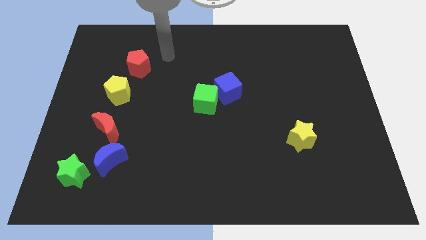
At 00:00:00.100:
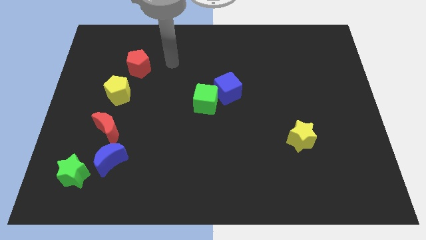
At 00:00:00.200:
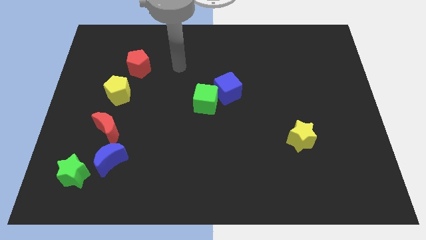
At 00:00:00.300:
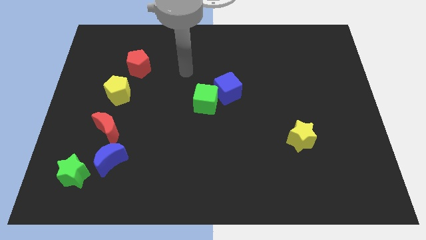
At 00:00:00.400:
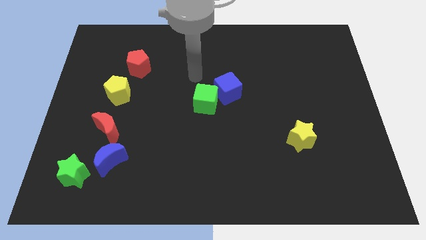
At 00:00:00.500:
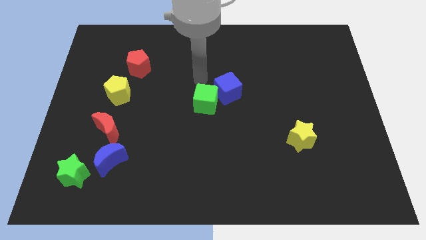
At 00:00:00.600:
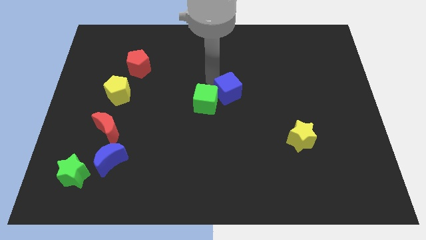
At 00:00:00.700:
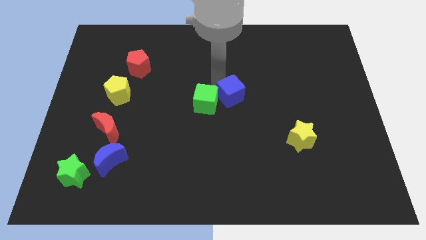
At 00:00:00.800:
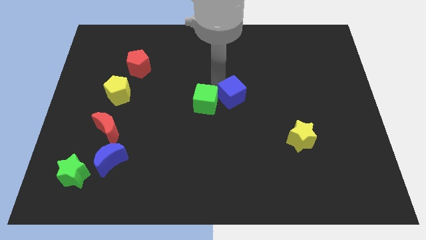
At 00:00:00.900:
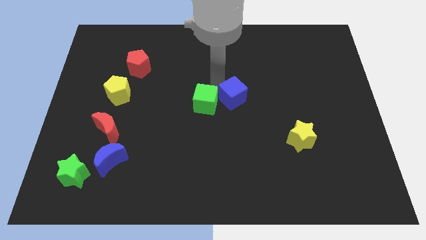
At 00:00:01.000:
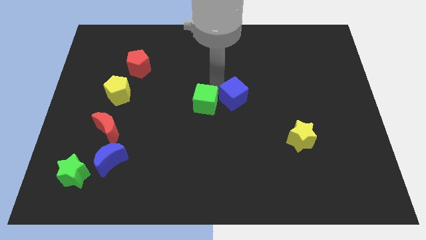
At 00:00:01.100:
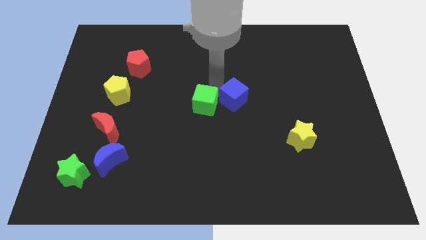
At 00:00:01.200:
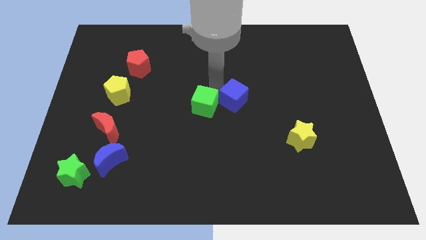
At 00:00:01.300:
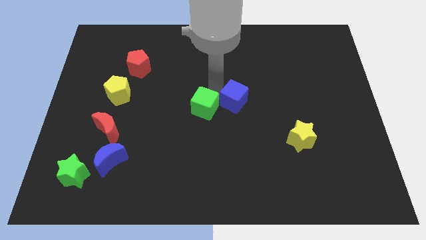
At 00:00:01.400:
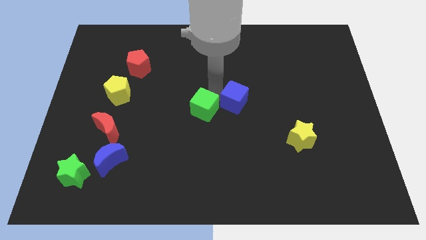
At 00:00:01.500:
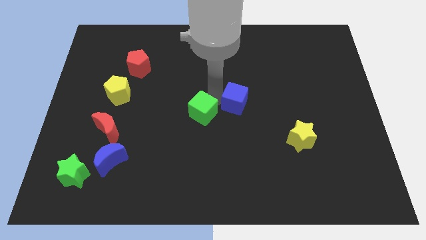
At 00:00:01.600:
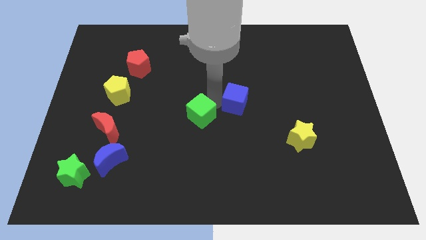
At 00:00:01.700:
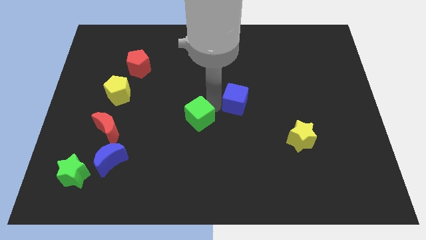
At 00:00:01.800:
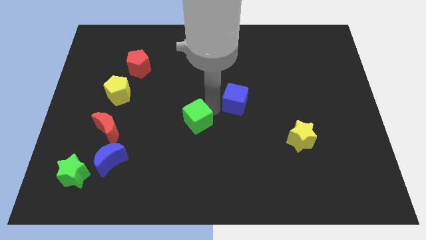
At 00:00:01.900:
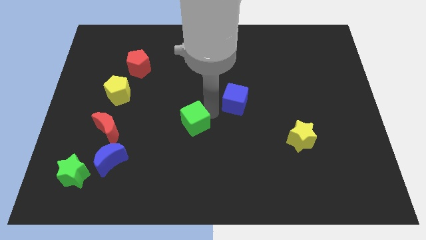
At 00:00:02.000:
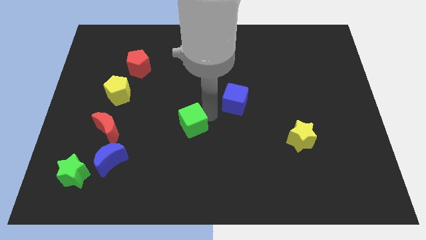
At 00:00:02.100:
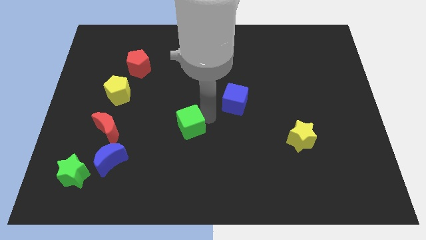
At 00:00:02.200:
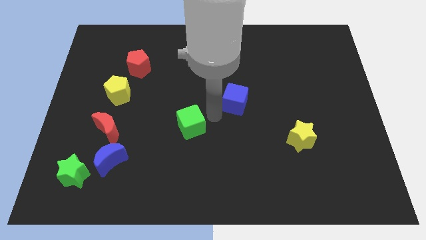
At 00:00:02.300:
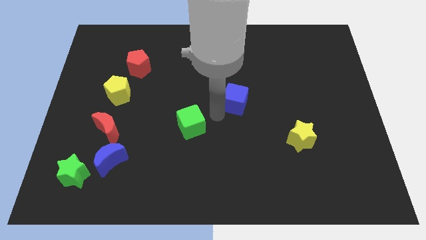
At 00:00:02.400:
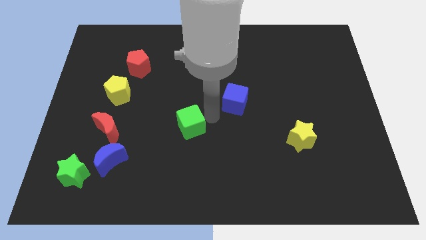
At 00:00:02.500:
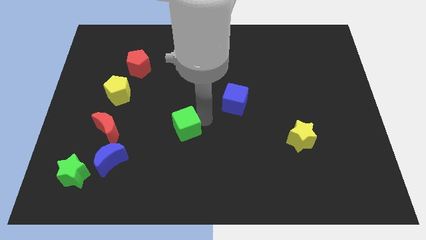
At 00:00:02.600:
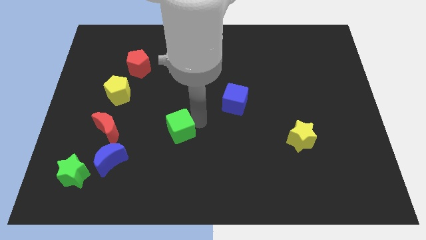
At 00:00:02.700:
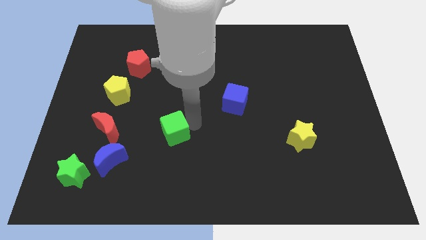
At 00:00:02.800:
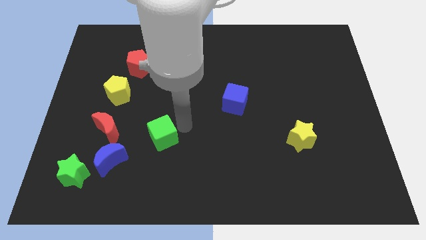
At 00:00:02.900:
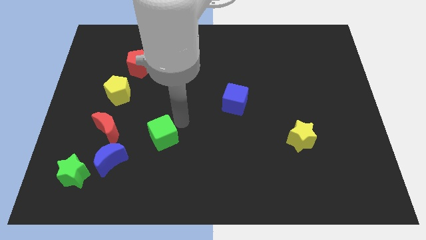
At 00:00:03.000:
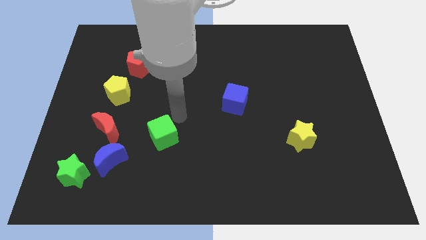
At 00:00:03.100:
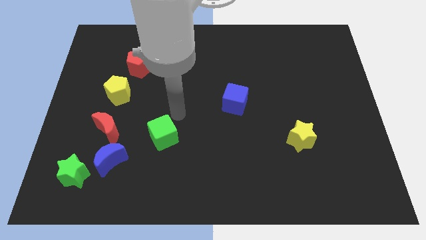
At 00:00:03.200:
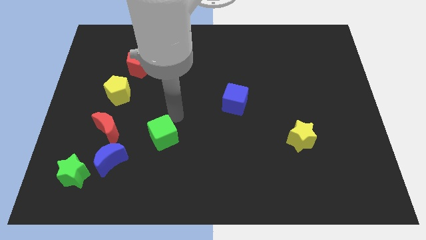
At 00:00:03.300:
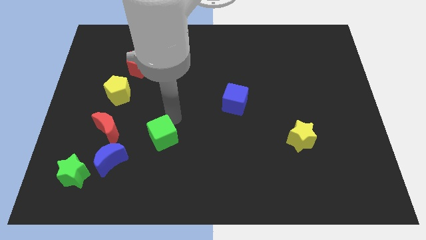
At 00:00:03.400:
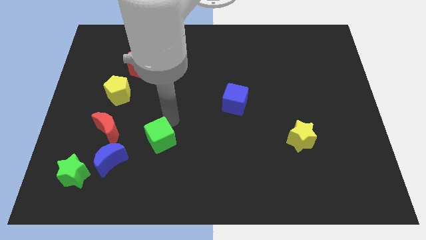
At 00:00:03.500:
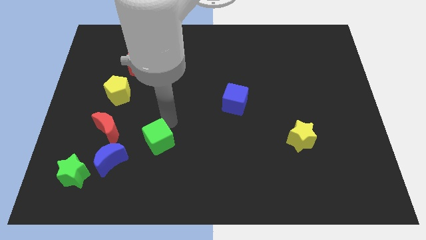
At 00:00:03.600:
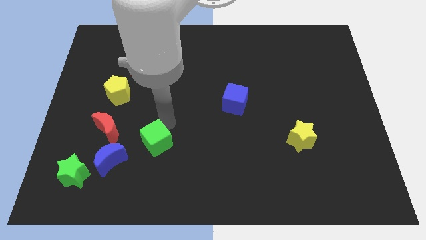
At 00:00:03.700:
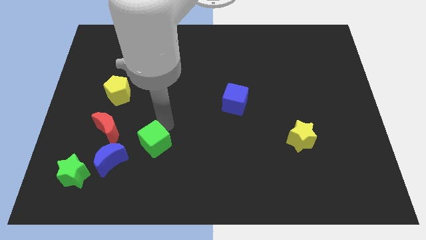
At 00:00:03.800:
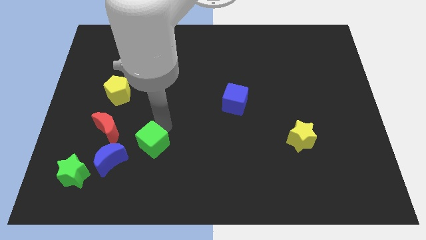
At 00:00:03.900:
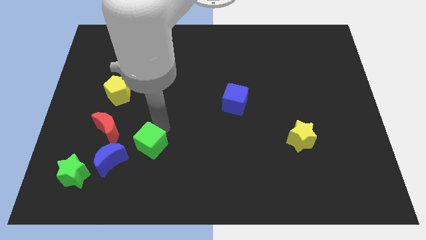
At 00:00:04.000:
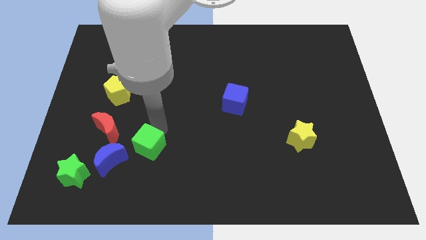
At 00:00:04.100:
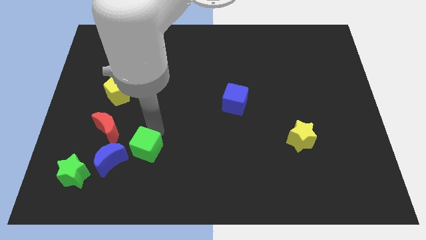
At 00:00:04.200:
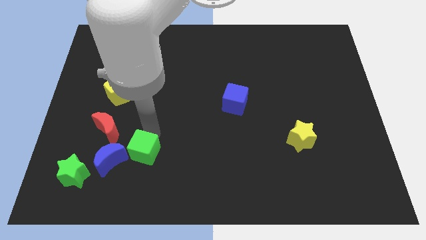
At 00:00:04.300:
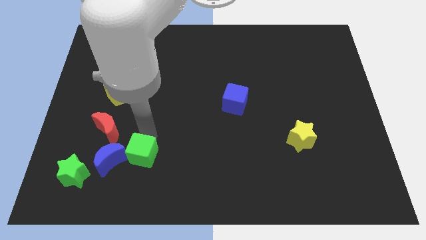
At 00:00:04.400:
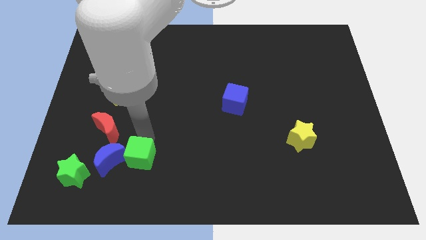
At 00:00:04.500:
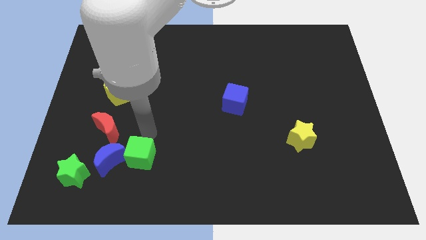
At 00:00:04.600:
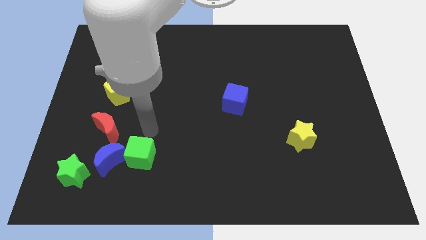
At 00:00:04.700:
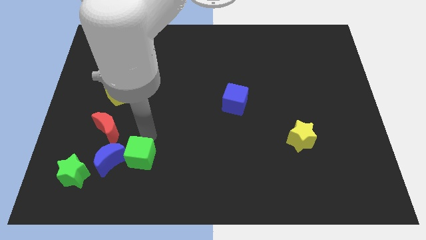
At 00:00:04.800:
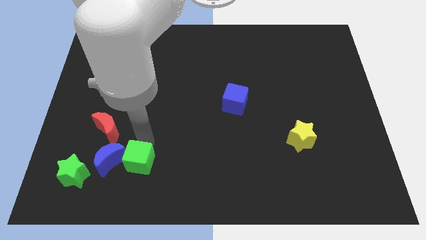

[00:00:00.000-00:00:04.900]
push the green cube to the bottom right of the blue moon

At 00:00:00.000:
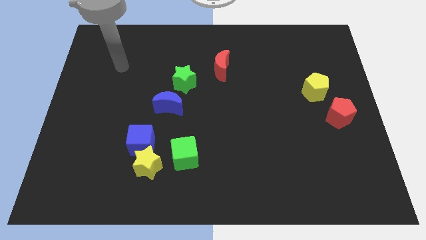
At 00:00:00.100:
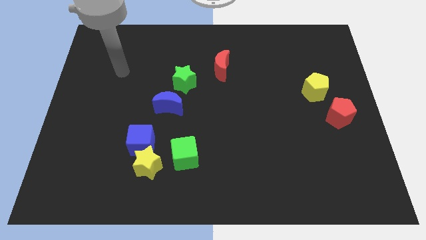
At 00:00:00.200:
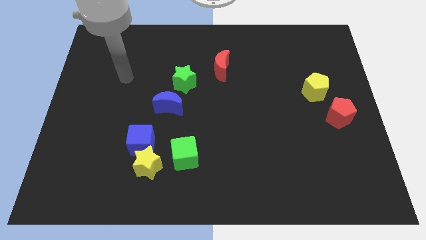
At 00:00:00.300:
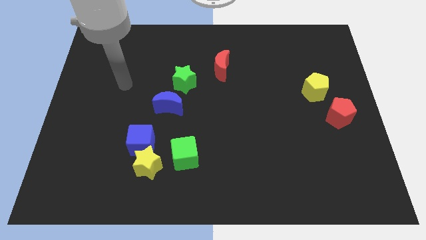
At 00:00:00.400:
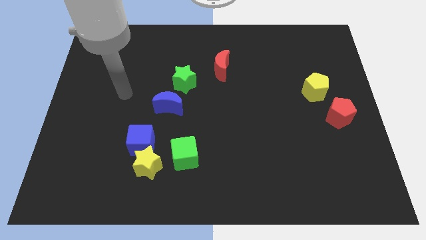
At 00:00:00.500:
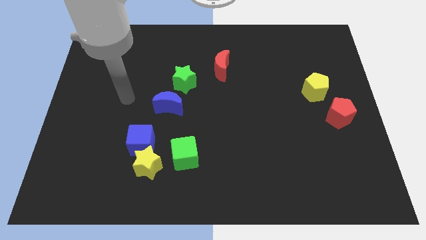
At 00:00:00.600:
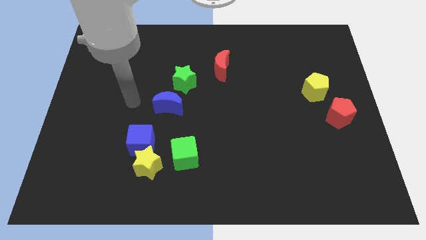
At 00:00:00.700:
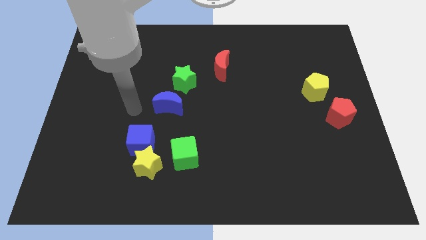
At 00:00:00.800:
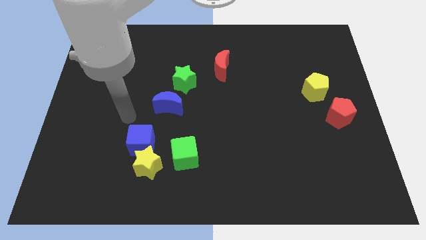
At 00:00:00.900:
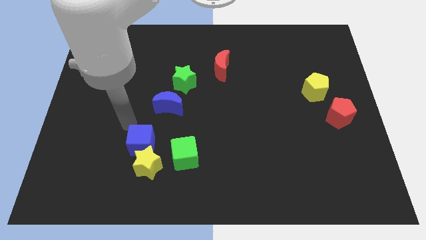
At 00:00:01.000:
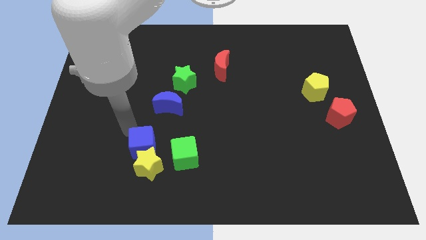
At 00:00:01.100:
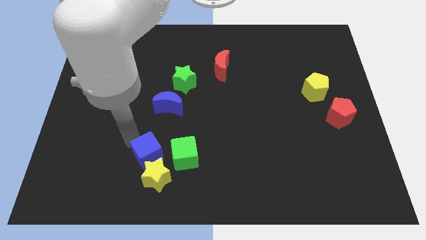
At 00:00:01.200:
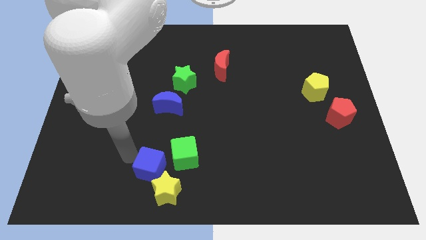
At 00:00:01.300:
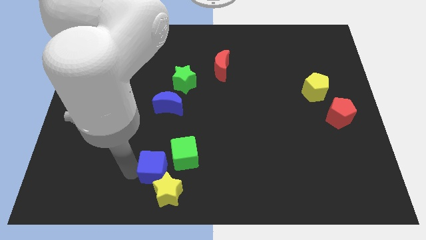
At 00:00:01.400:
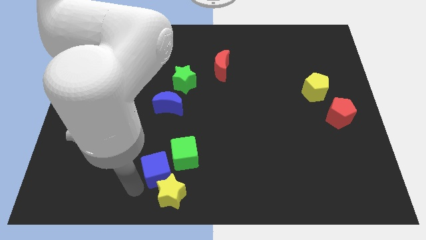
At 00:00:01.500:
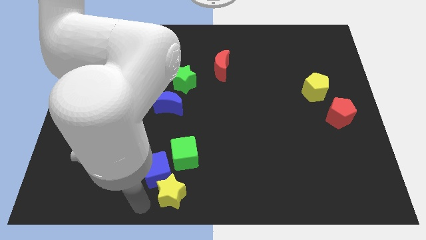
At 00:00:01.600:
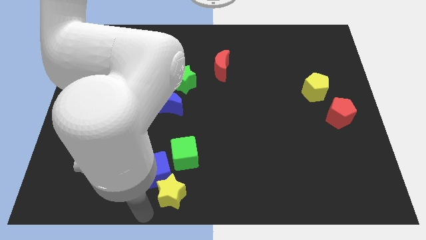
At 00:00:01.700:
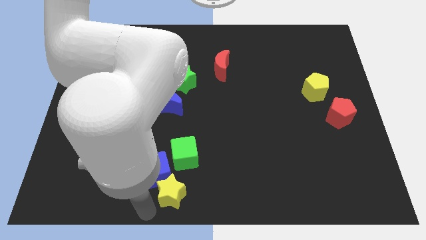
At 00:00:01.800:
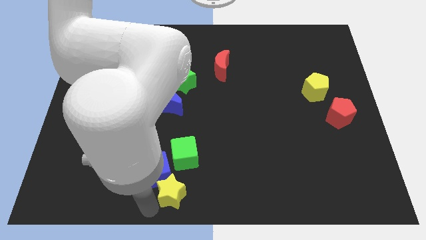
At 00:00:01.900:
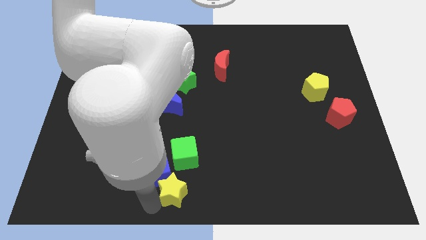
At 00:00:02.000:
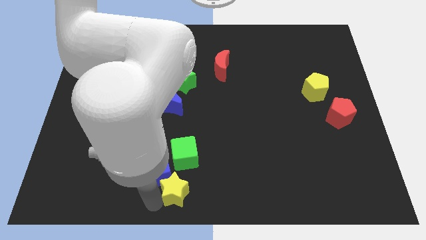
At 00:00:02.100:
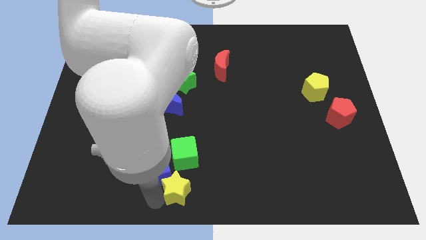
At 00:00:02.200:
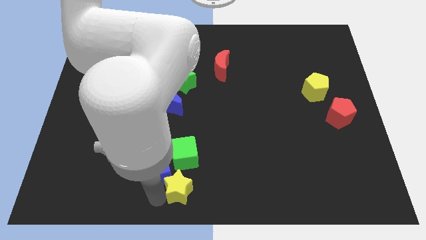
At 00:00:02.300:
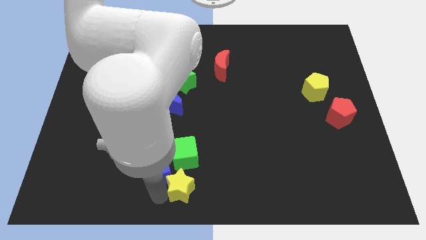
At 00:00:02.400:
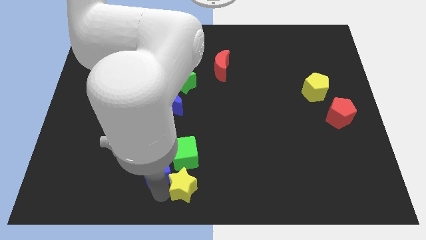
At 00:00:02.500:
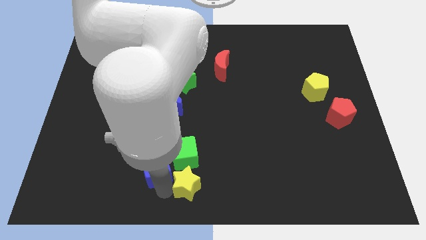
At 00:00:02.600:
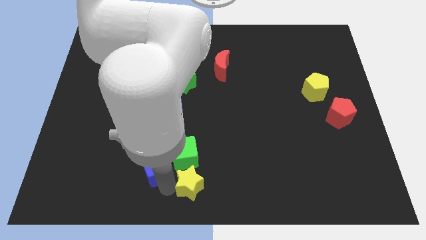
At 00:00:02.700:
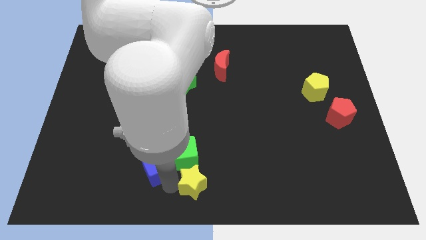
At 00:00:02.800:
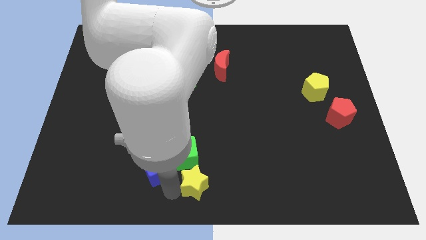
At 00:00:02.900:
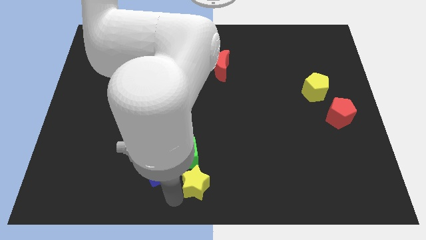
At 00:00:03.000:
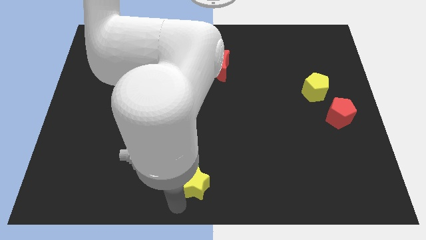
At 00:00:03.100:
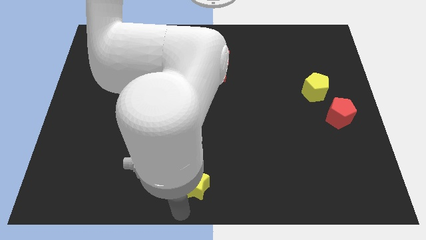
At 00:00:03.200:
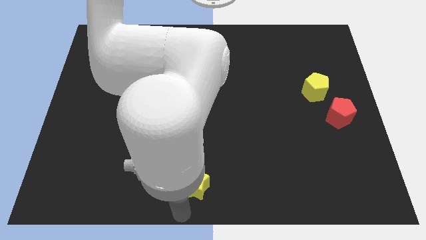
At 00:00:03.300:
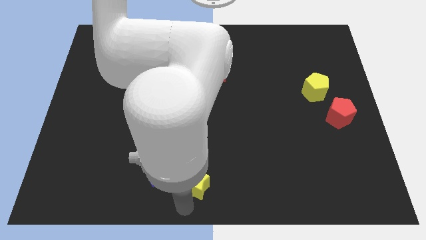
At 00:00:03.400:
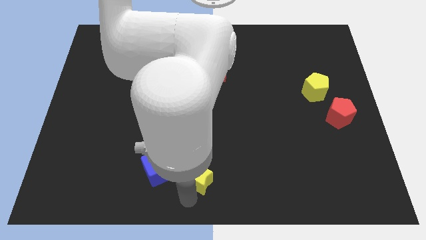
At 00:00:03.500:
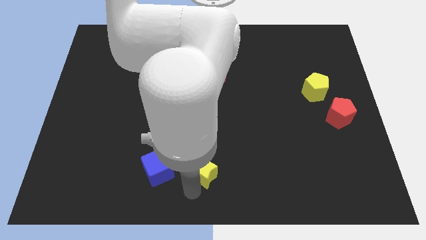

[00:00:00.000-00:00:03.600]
move the yellow star to the right side of the green cube
